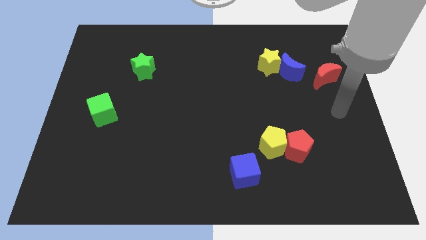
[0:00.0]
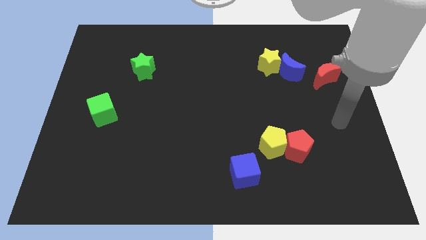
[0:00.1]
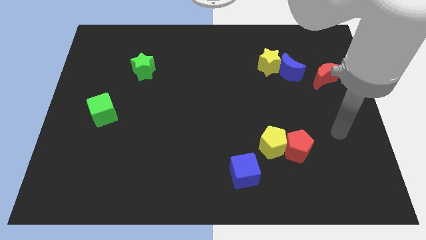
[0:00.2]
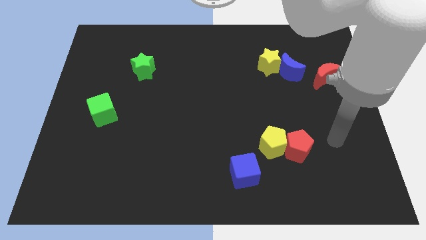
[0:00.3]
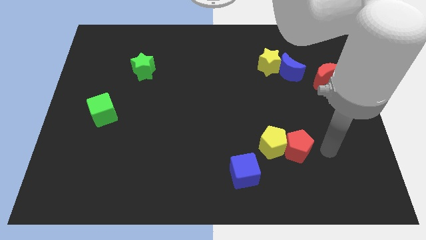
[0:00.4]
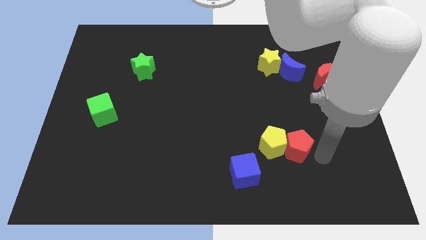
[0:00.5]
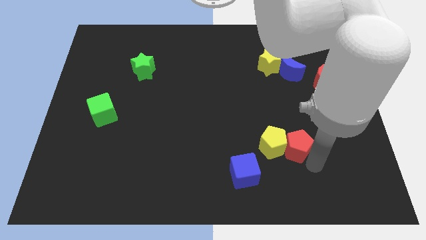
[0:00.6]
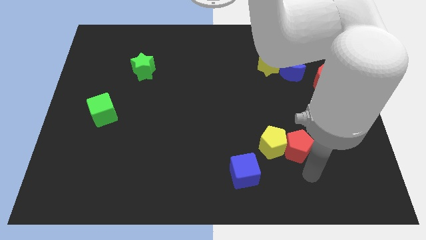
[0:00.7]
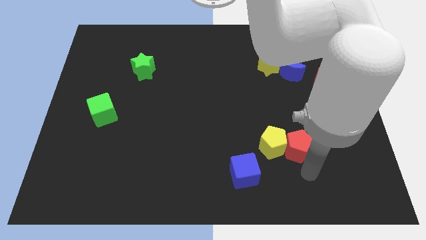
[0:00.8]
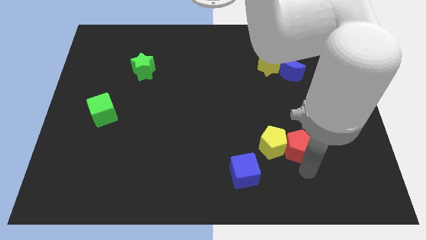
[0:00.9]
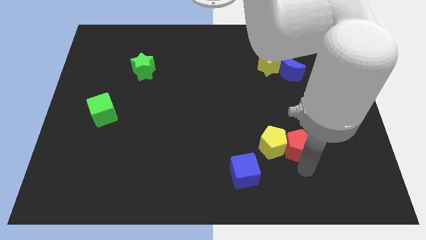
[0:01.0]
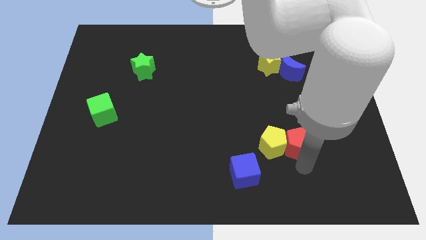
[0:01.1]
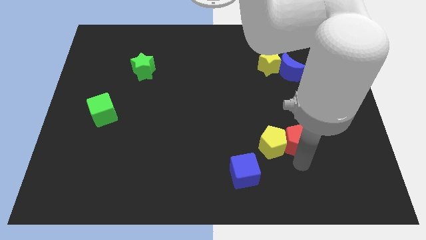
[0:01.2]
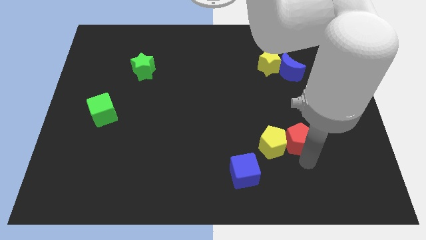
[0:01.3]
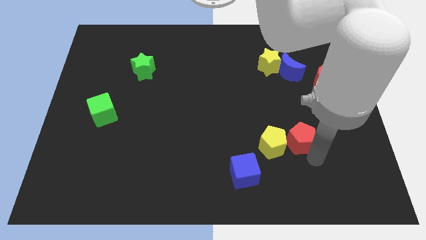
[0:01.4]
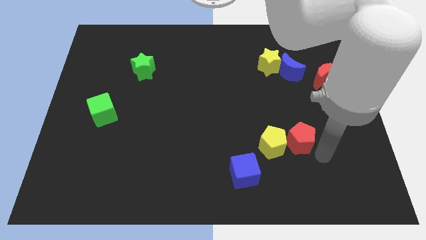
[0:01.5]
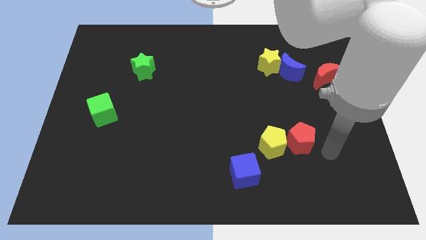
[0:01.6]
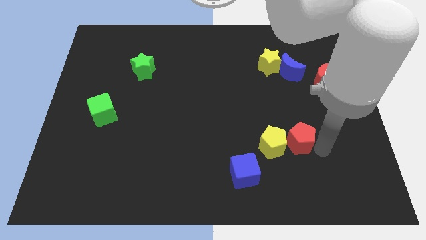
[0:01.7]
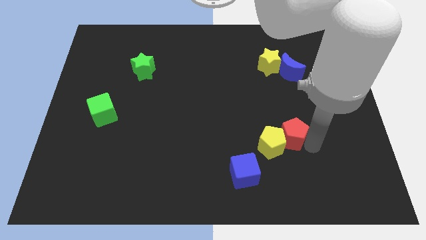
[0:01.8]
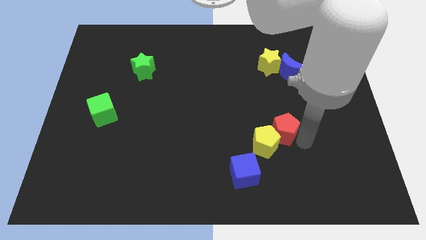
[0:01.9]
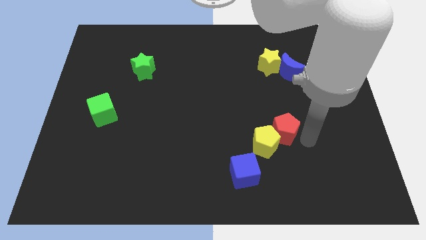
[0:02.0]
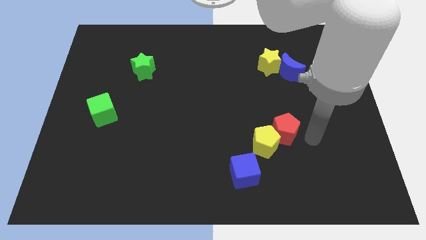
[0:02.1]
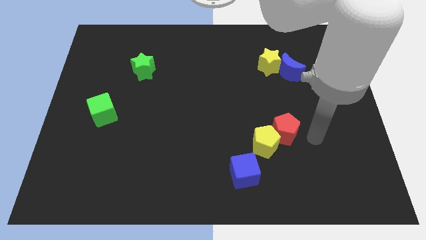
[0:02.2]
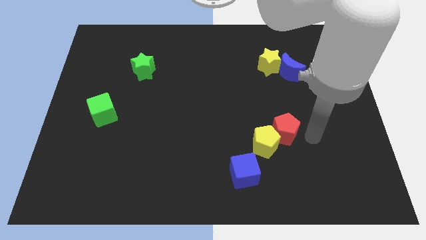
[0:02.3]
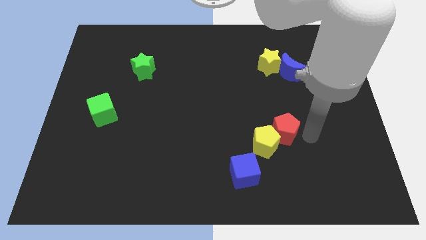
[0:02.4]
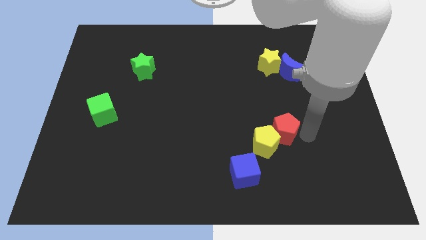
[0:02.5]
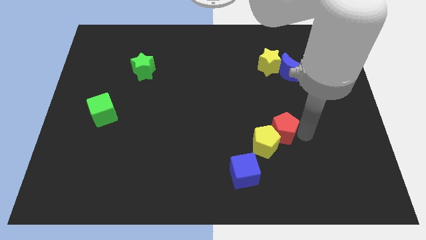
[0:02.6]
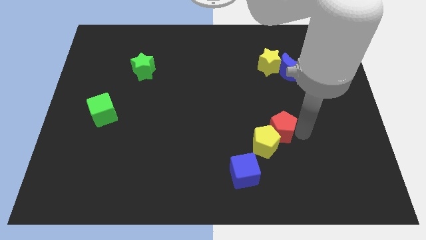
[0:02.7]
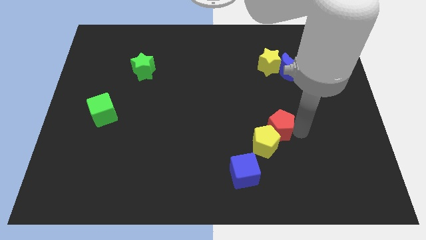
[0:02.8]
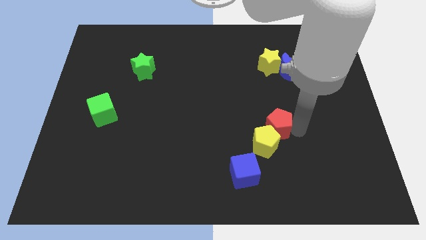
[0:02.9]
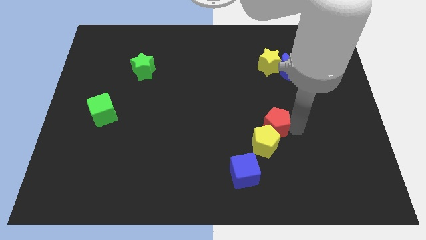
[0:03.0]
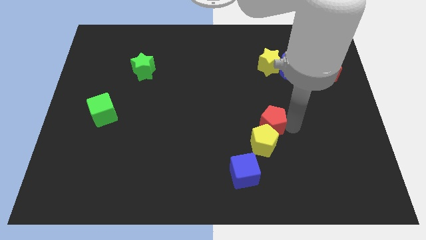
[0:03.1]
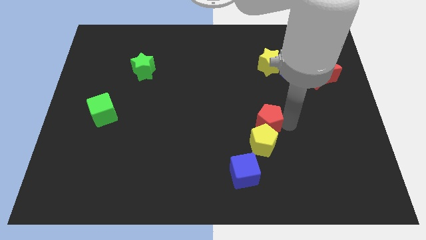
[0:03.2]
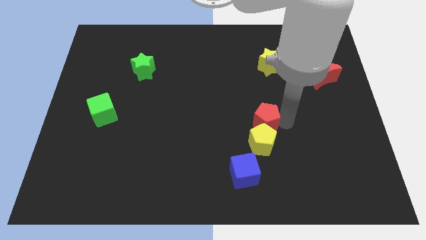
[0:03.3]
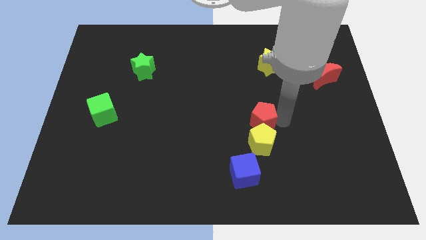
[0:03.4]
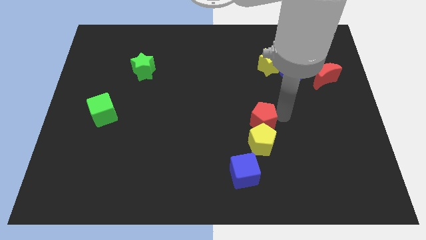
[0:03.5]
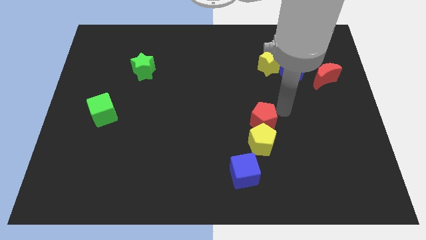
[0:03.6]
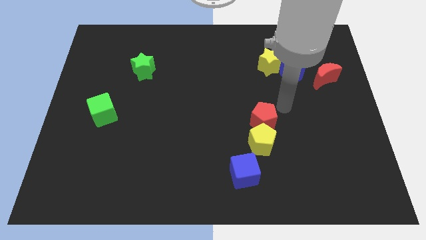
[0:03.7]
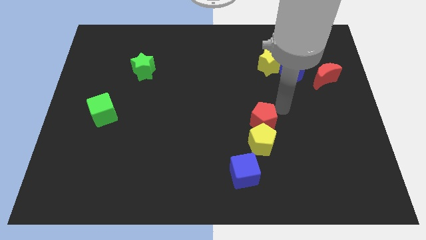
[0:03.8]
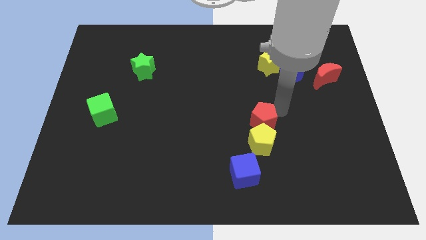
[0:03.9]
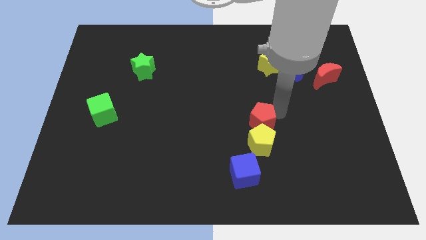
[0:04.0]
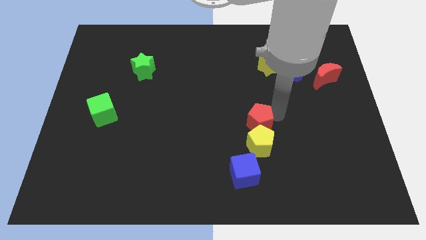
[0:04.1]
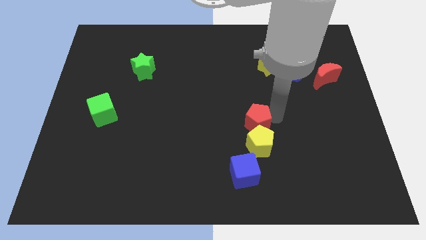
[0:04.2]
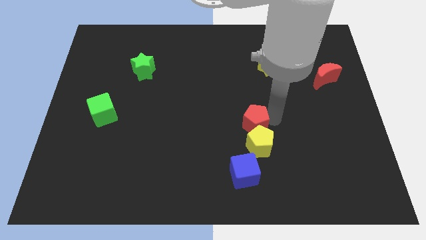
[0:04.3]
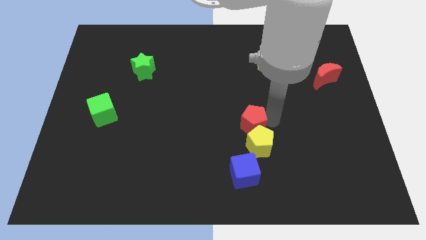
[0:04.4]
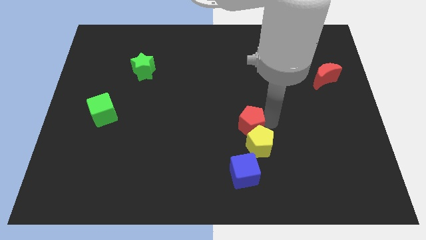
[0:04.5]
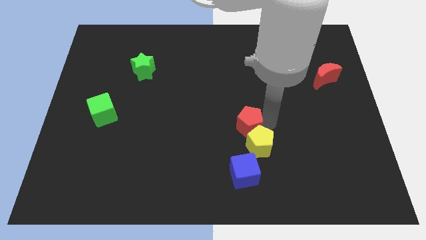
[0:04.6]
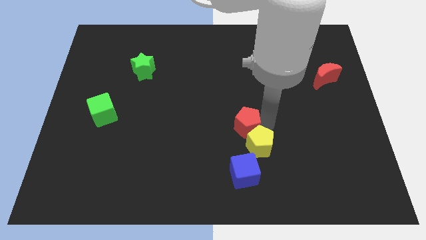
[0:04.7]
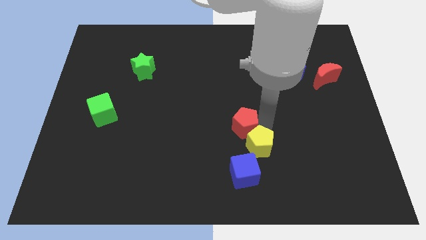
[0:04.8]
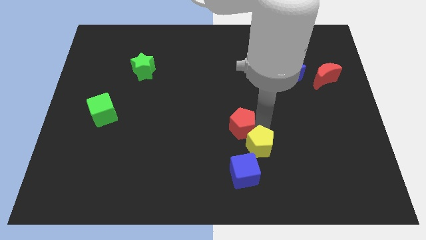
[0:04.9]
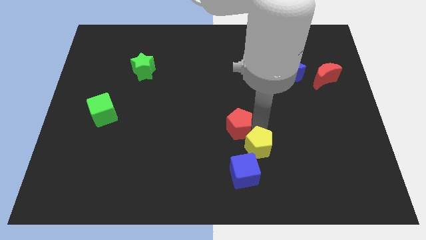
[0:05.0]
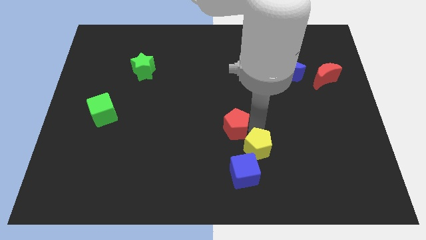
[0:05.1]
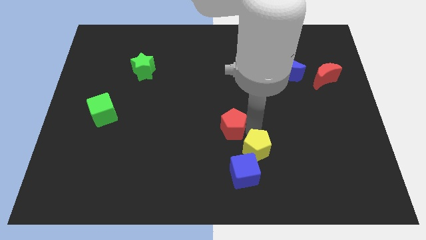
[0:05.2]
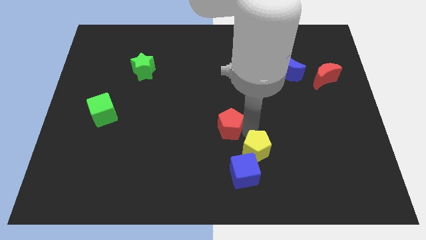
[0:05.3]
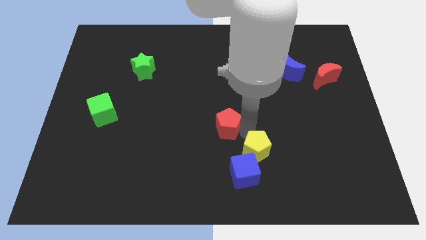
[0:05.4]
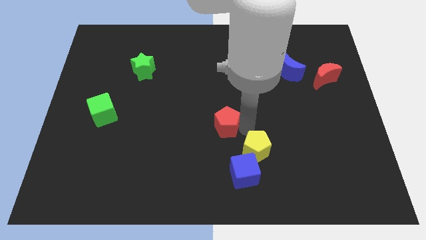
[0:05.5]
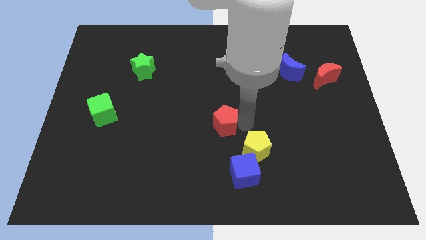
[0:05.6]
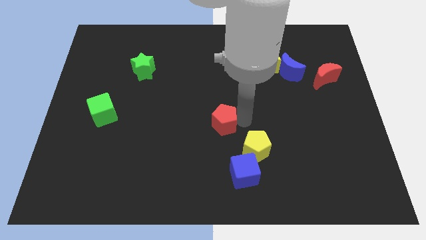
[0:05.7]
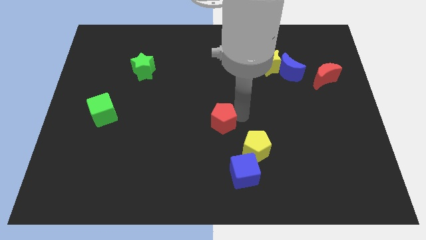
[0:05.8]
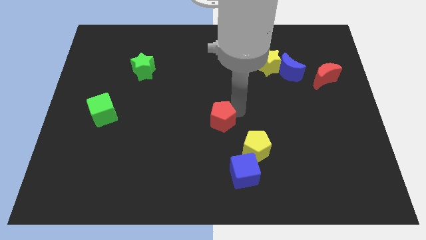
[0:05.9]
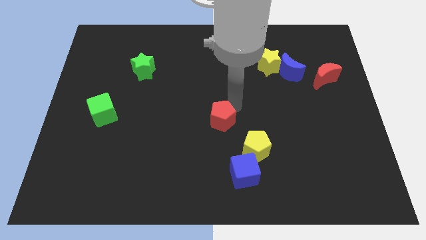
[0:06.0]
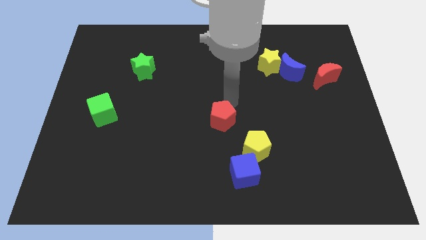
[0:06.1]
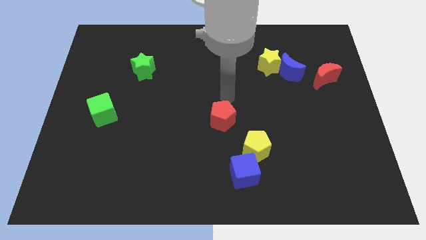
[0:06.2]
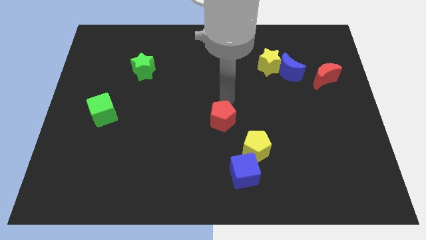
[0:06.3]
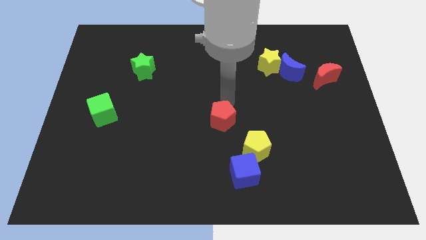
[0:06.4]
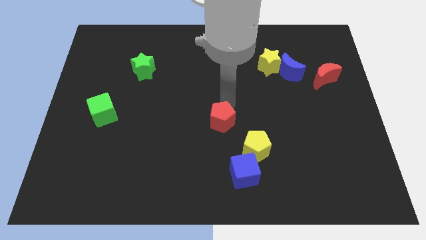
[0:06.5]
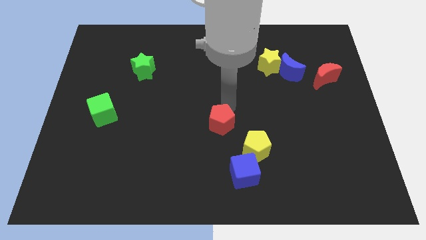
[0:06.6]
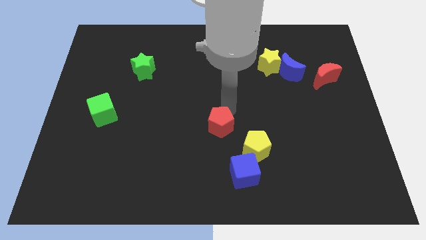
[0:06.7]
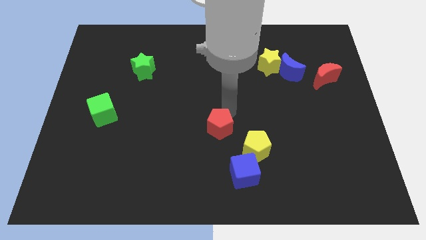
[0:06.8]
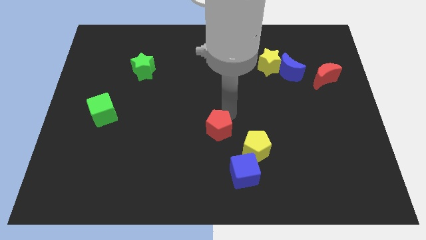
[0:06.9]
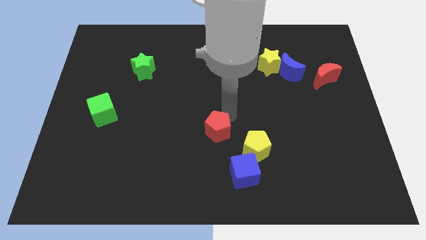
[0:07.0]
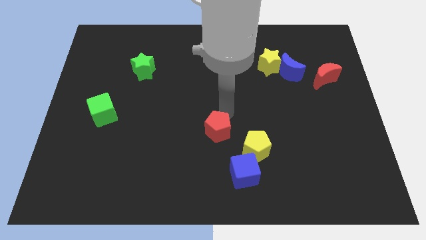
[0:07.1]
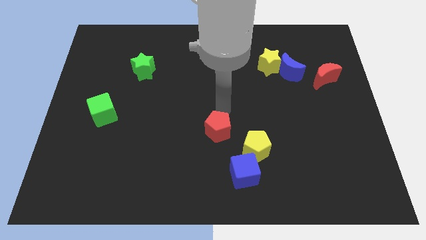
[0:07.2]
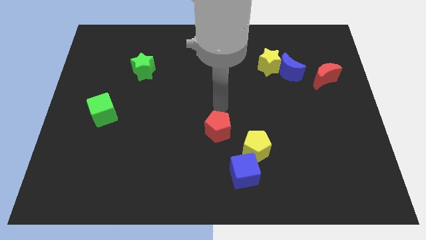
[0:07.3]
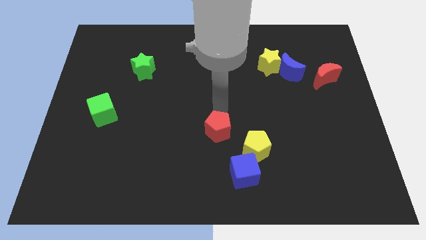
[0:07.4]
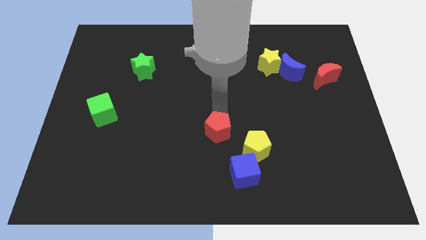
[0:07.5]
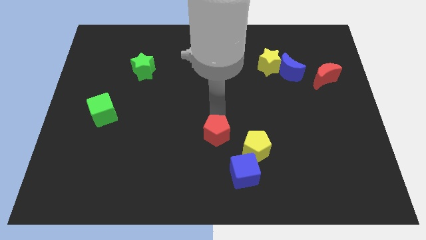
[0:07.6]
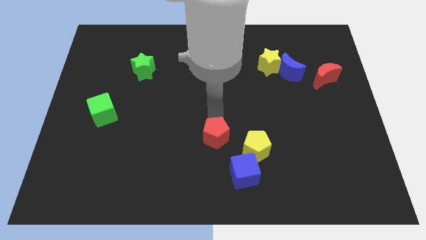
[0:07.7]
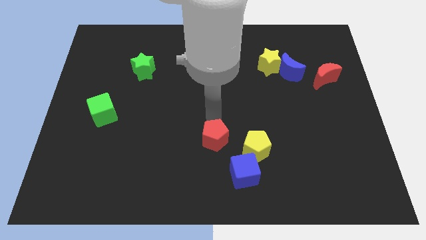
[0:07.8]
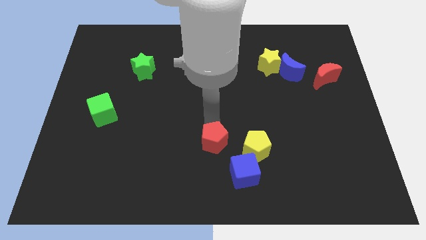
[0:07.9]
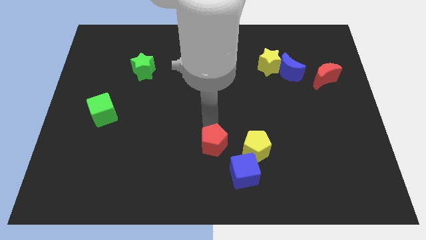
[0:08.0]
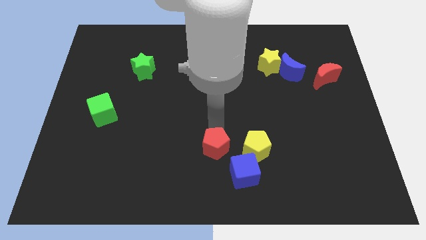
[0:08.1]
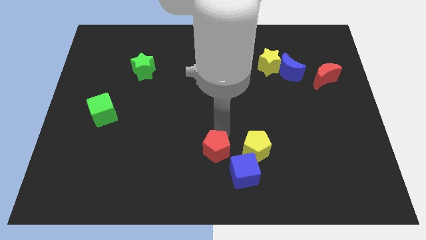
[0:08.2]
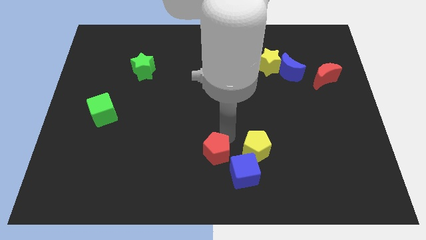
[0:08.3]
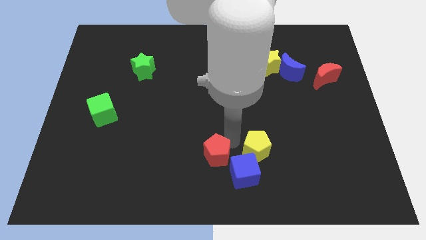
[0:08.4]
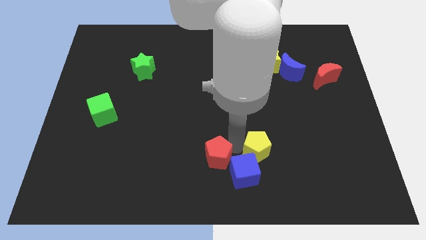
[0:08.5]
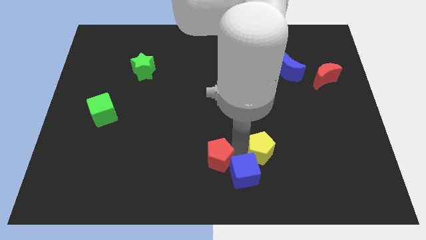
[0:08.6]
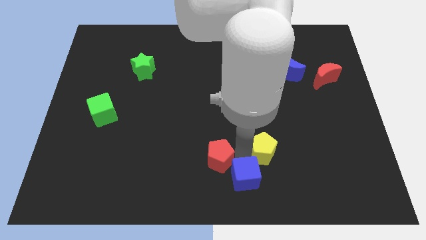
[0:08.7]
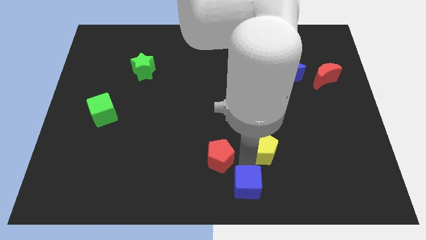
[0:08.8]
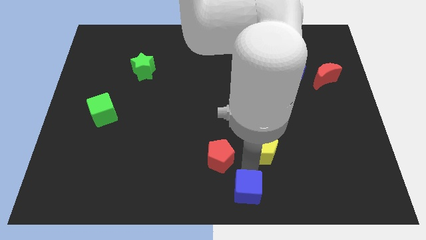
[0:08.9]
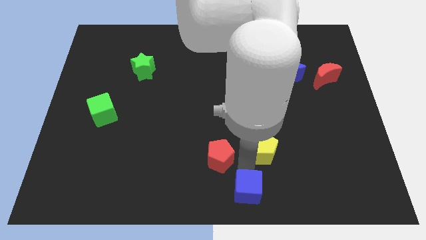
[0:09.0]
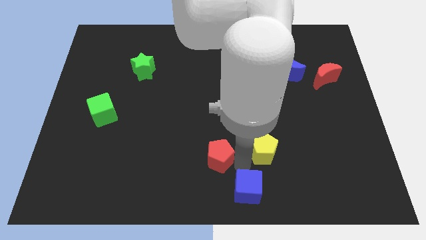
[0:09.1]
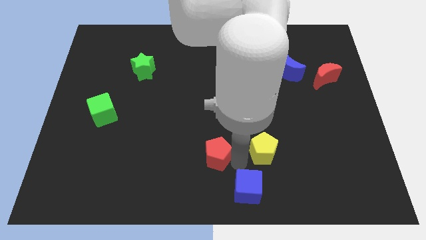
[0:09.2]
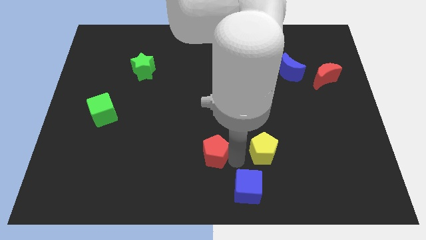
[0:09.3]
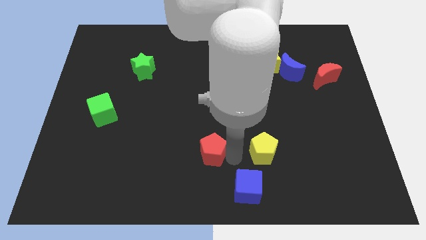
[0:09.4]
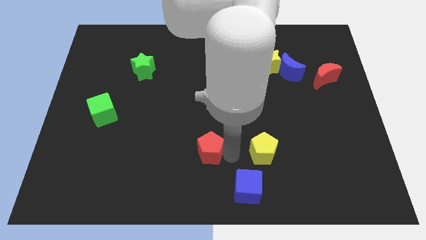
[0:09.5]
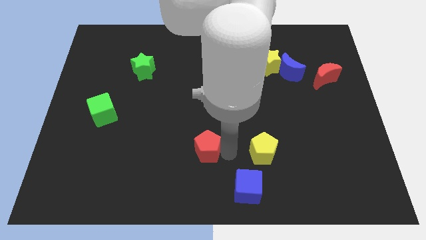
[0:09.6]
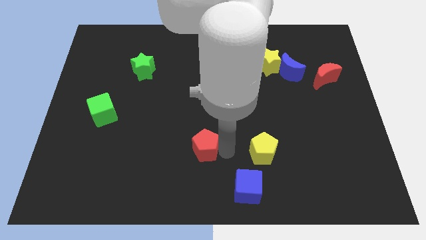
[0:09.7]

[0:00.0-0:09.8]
push the red pentagon left
